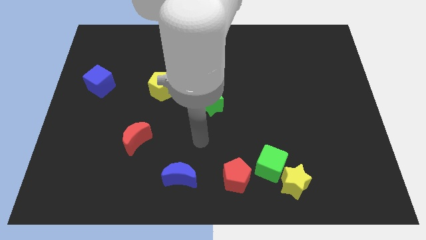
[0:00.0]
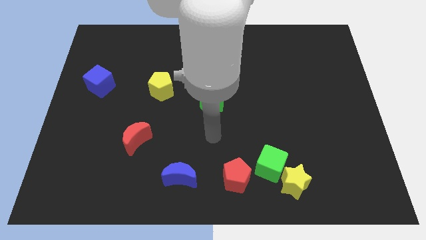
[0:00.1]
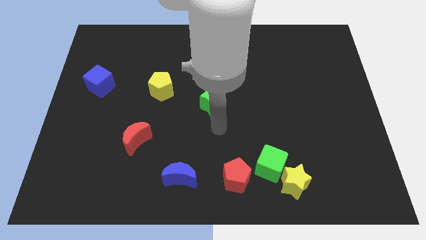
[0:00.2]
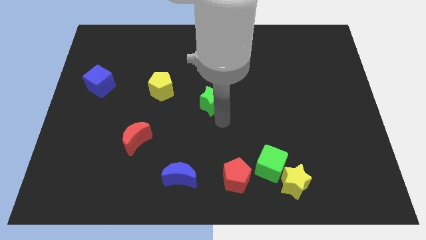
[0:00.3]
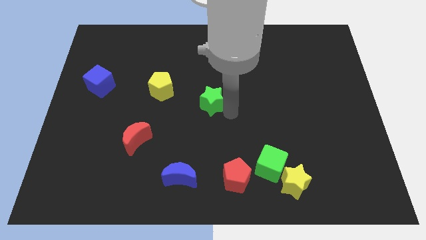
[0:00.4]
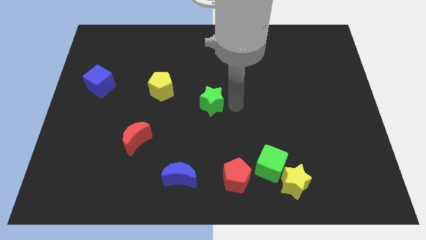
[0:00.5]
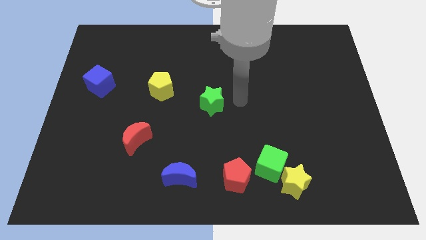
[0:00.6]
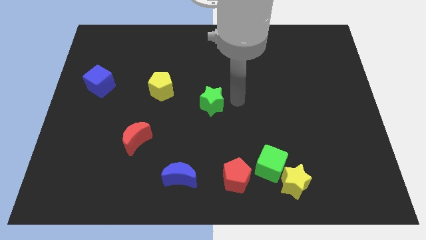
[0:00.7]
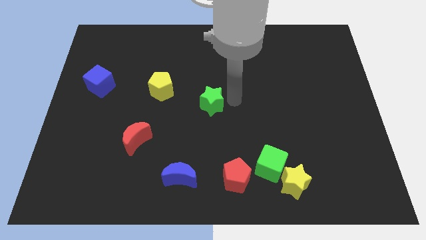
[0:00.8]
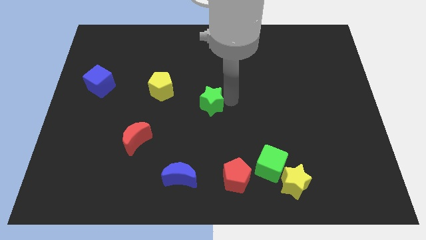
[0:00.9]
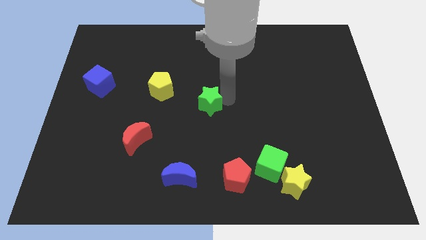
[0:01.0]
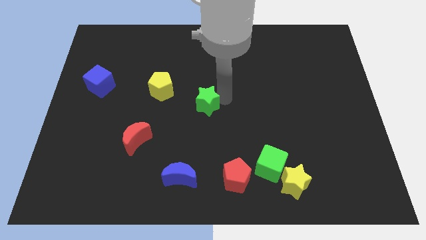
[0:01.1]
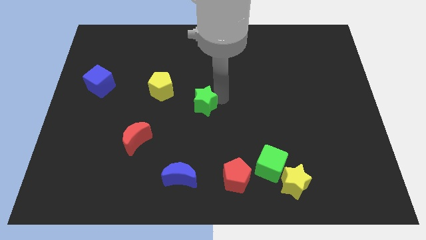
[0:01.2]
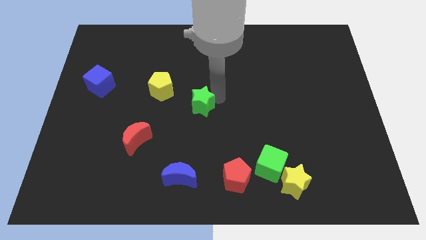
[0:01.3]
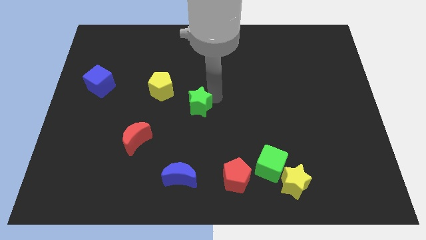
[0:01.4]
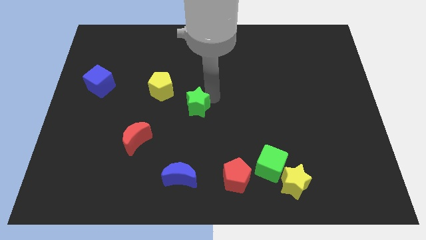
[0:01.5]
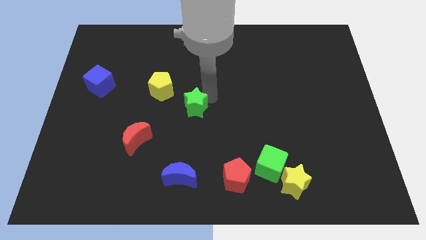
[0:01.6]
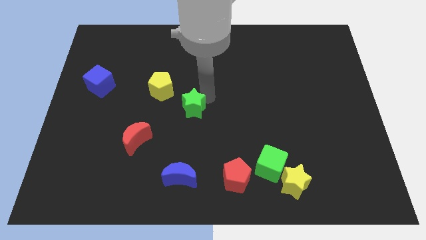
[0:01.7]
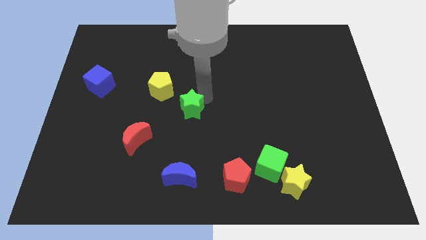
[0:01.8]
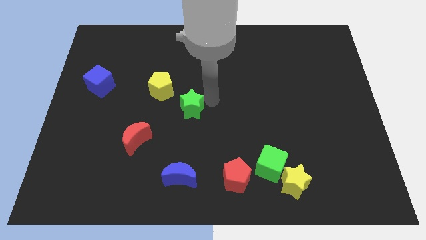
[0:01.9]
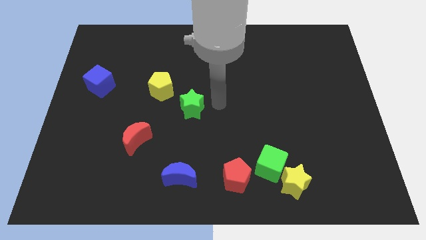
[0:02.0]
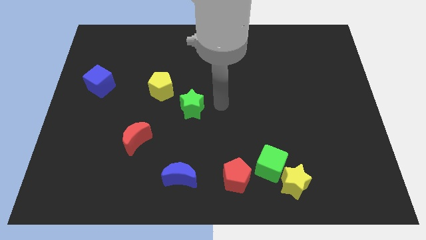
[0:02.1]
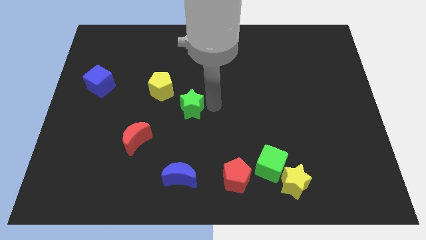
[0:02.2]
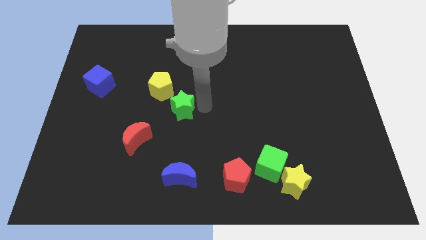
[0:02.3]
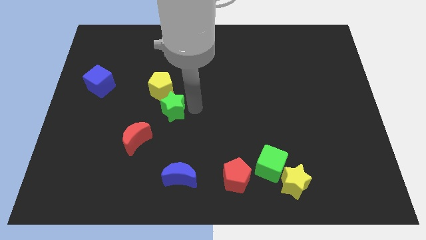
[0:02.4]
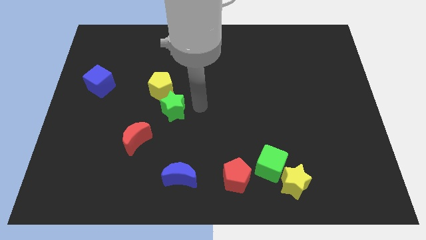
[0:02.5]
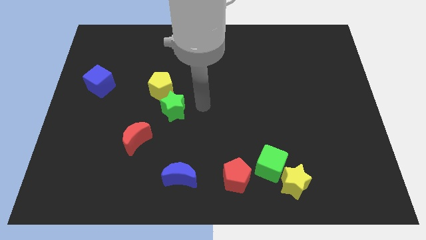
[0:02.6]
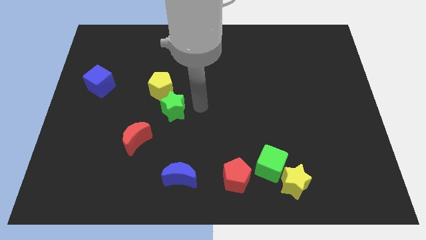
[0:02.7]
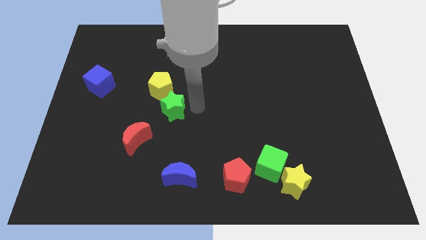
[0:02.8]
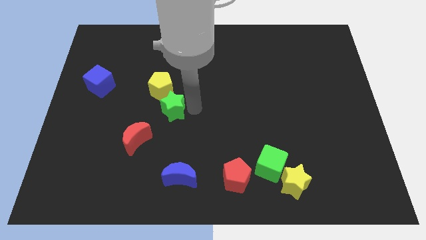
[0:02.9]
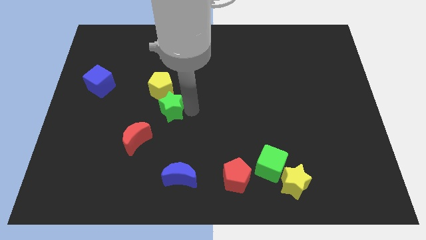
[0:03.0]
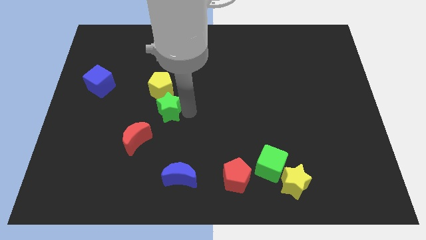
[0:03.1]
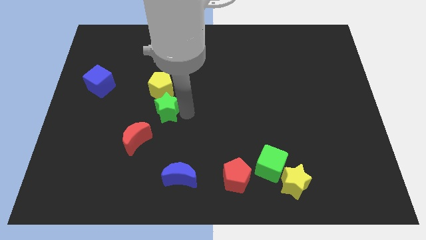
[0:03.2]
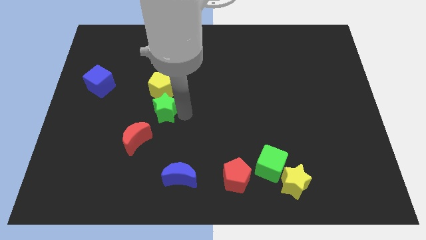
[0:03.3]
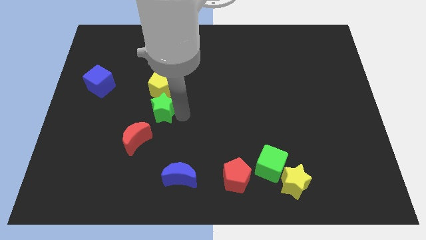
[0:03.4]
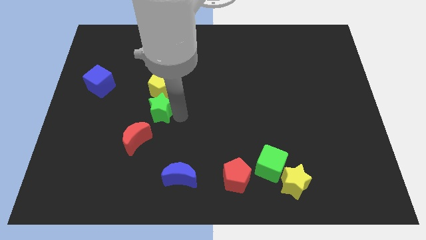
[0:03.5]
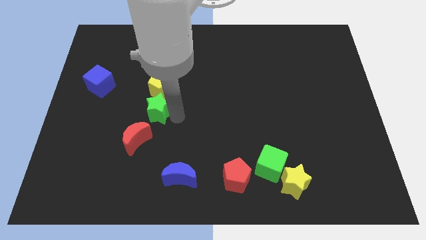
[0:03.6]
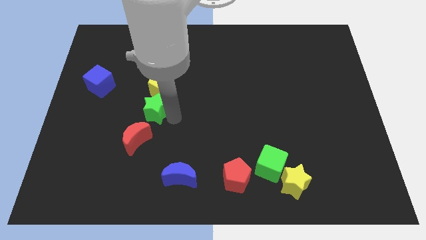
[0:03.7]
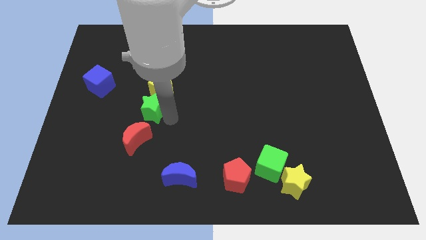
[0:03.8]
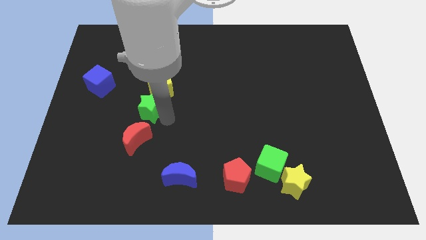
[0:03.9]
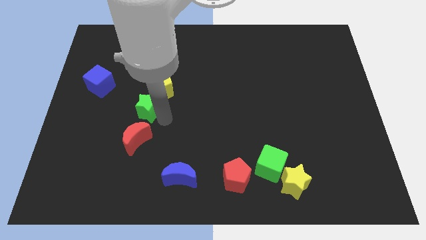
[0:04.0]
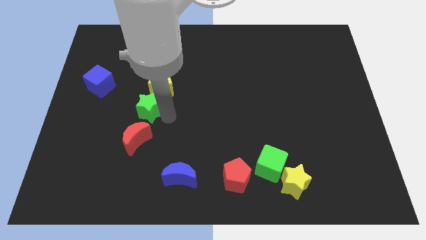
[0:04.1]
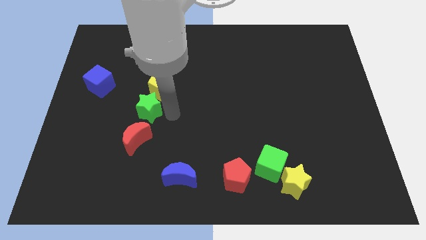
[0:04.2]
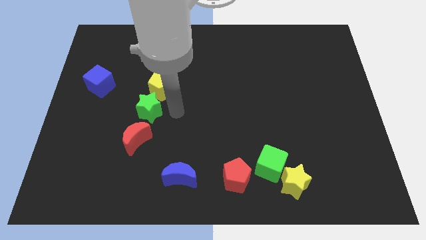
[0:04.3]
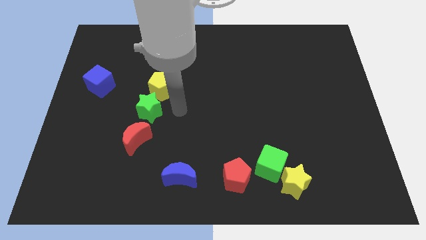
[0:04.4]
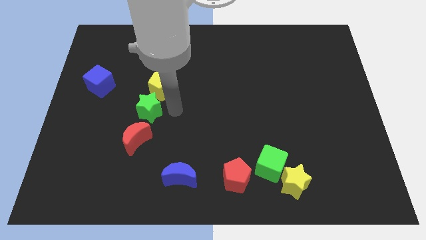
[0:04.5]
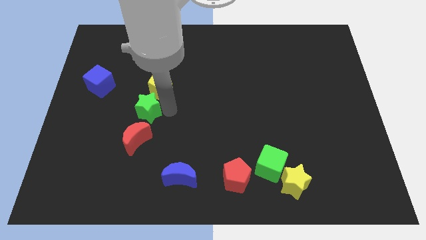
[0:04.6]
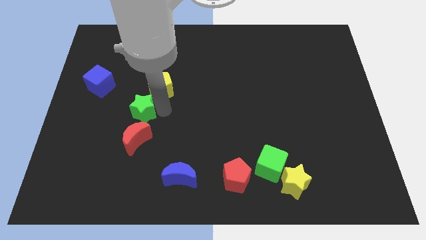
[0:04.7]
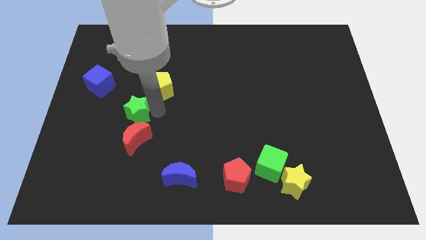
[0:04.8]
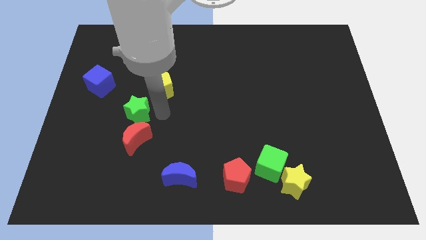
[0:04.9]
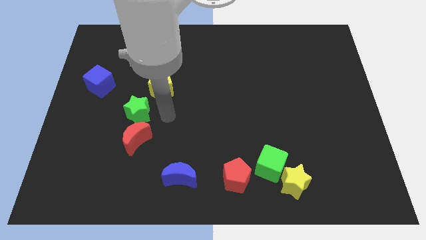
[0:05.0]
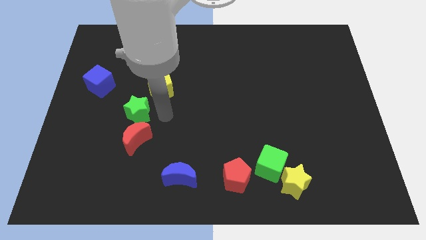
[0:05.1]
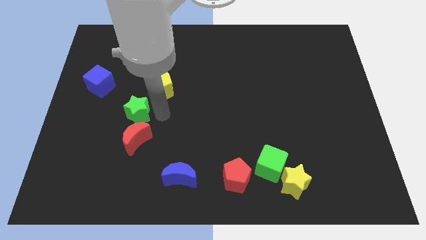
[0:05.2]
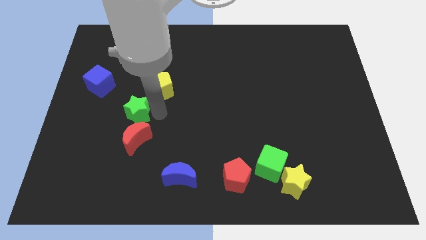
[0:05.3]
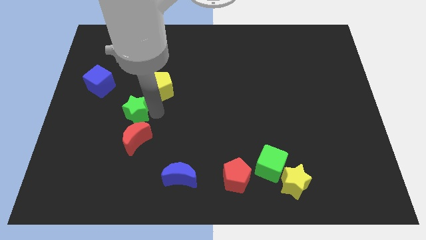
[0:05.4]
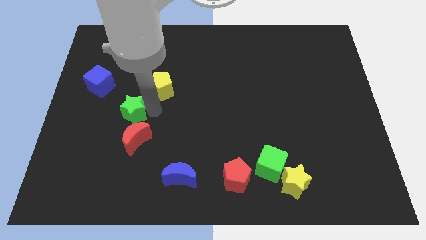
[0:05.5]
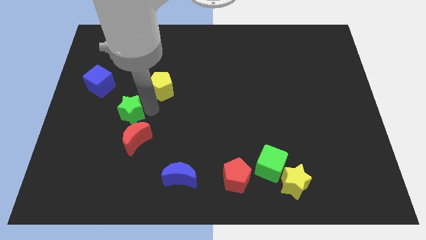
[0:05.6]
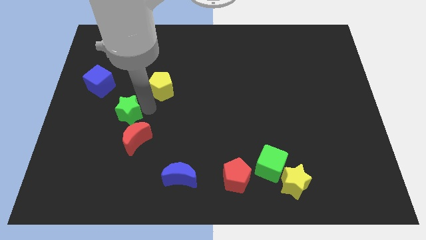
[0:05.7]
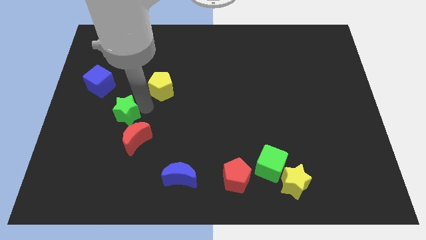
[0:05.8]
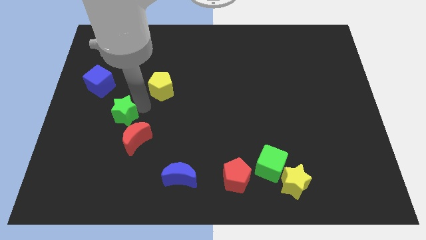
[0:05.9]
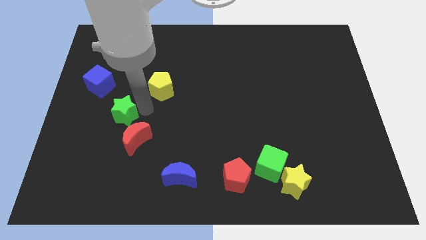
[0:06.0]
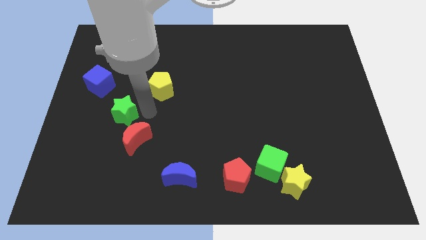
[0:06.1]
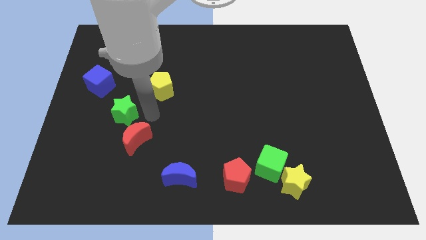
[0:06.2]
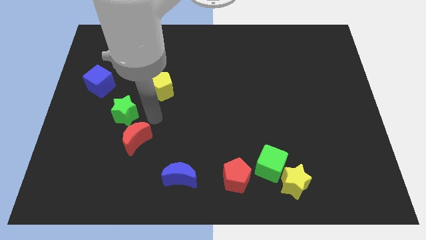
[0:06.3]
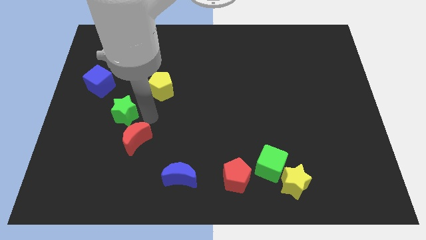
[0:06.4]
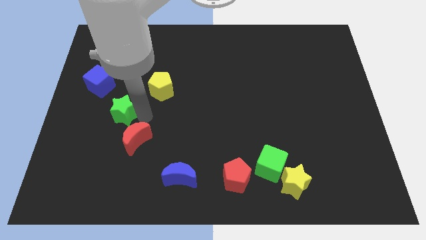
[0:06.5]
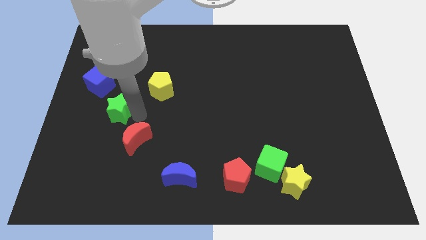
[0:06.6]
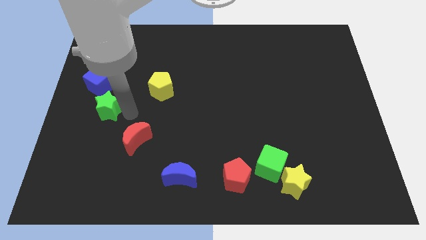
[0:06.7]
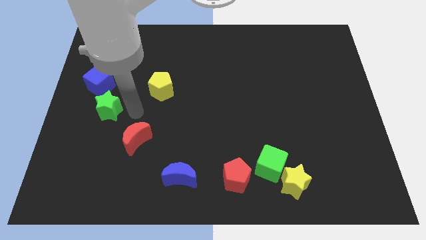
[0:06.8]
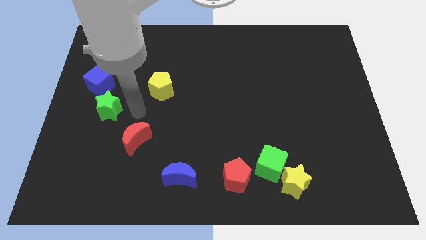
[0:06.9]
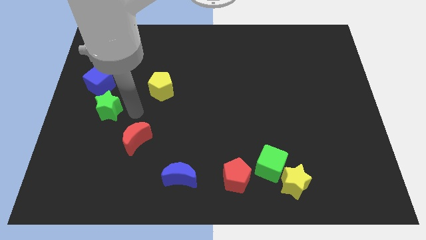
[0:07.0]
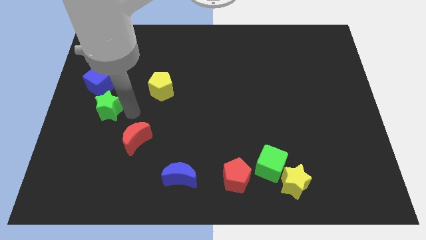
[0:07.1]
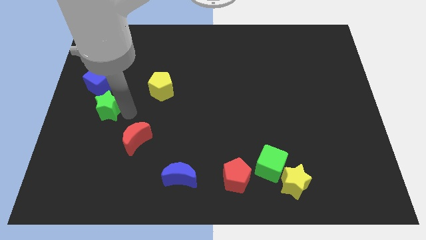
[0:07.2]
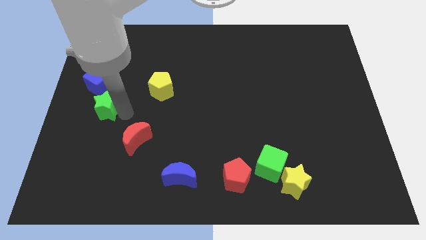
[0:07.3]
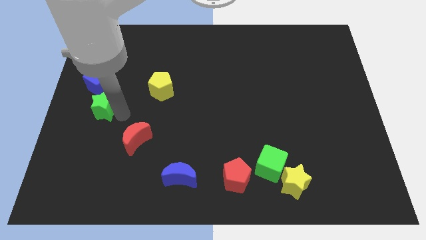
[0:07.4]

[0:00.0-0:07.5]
move the green star to the left side of the board
